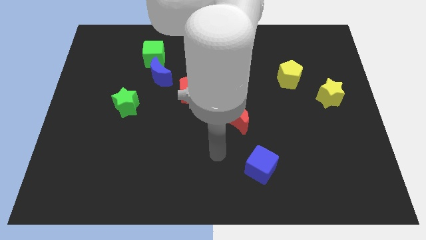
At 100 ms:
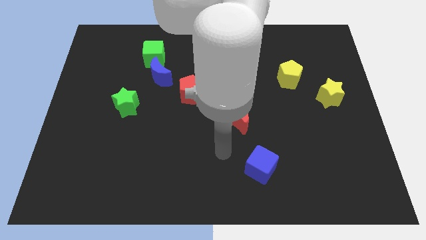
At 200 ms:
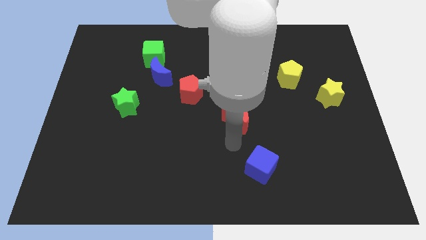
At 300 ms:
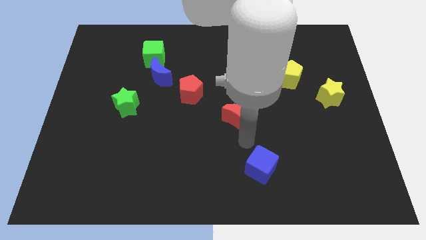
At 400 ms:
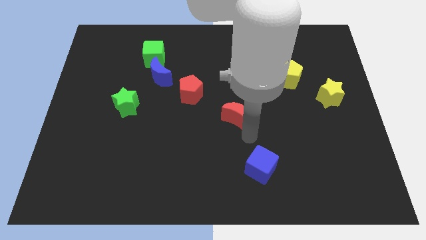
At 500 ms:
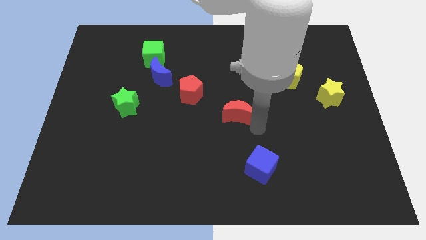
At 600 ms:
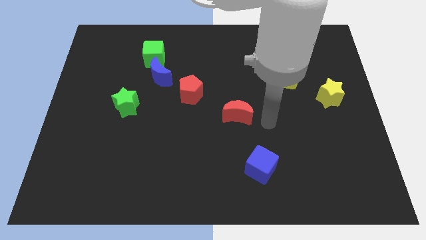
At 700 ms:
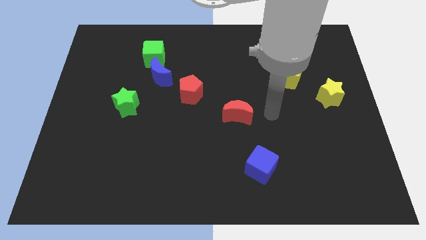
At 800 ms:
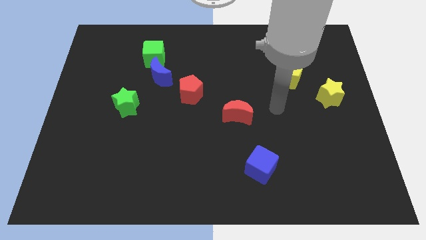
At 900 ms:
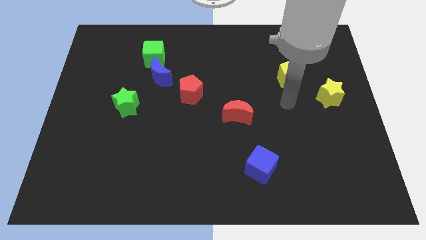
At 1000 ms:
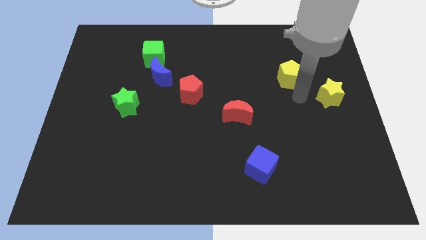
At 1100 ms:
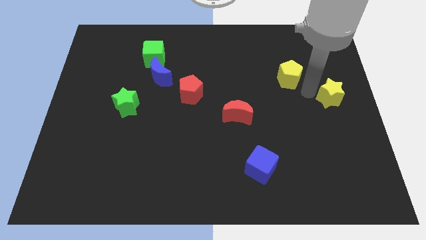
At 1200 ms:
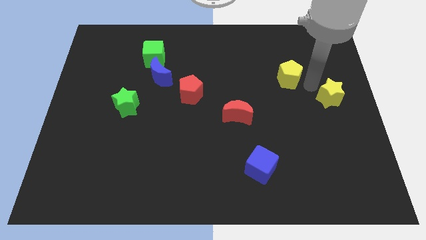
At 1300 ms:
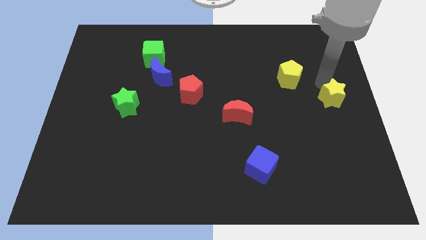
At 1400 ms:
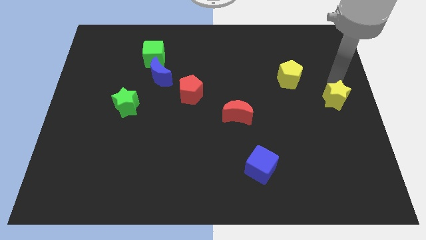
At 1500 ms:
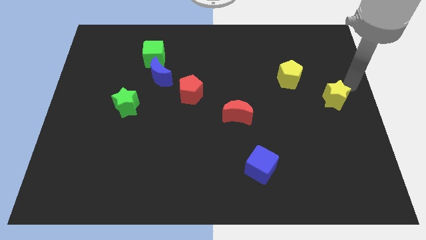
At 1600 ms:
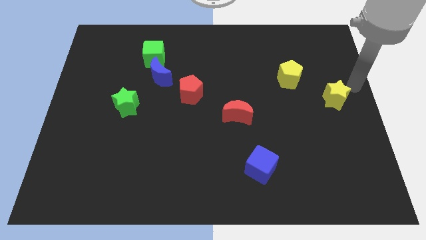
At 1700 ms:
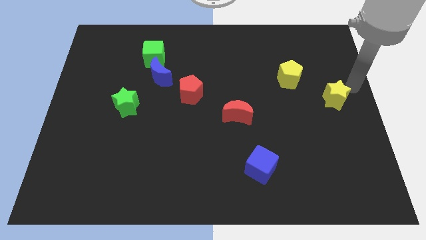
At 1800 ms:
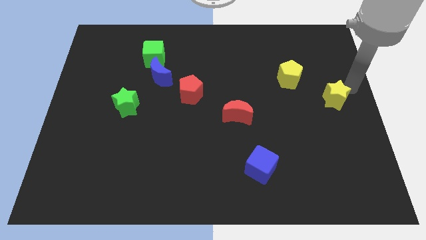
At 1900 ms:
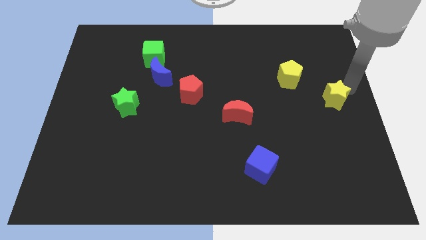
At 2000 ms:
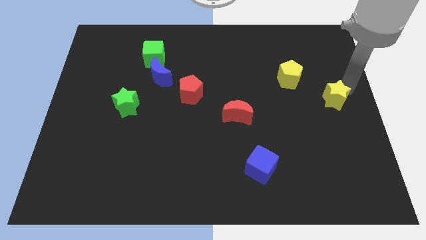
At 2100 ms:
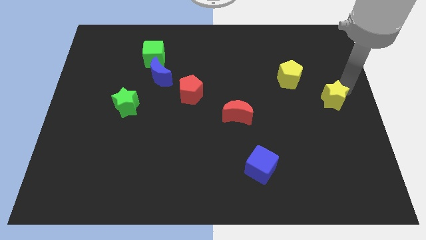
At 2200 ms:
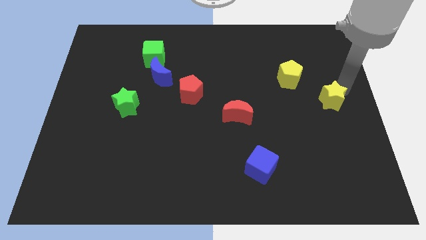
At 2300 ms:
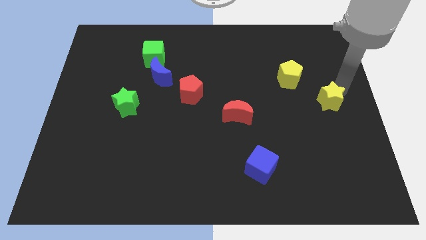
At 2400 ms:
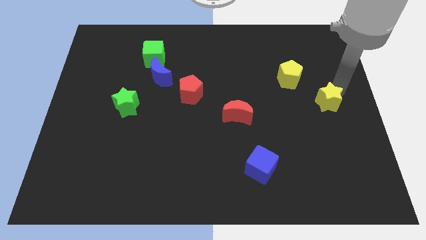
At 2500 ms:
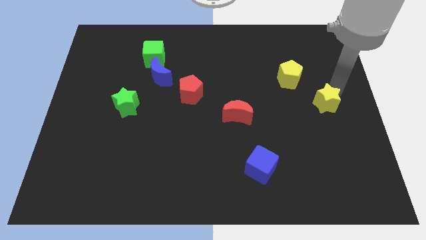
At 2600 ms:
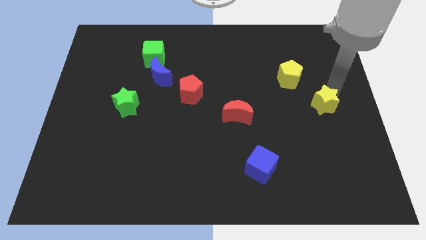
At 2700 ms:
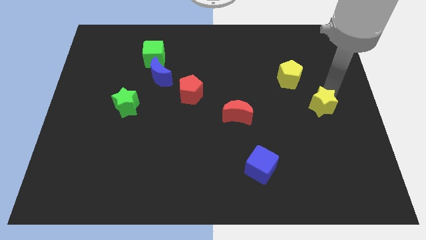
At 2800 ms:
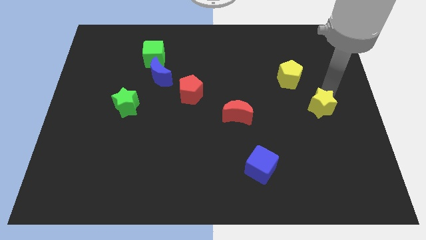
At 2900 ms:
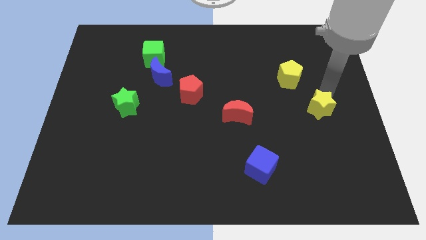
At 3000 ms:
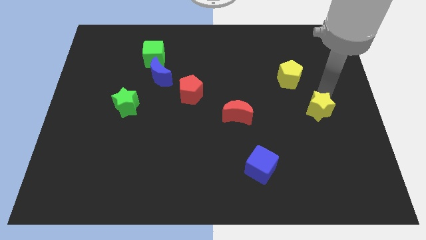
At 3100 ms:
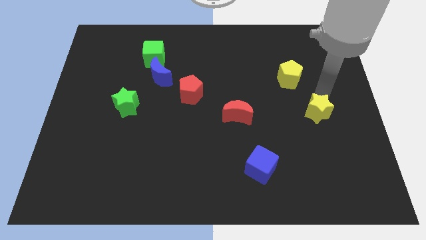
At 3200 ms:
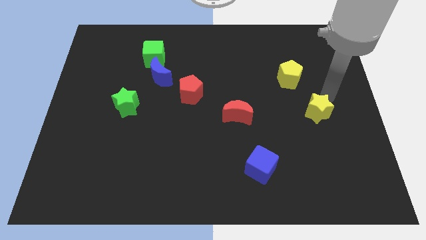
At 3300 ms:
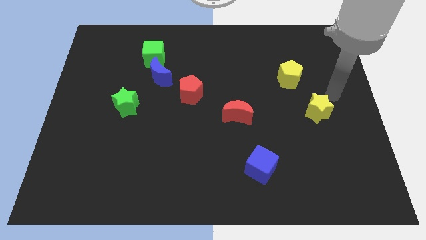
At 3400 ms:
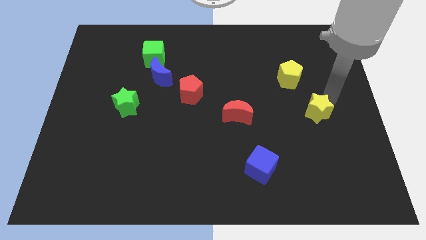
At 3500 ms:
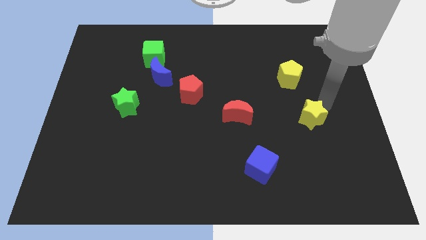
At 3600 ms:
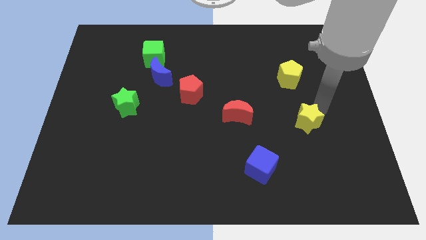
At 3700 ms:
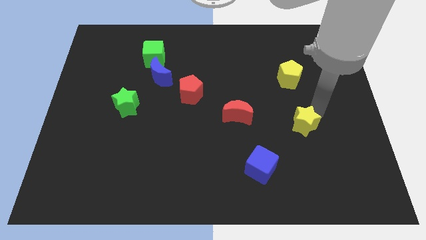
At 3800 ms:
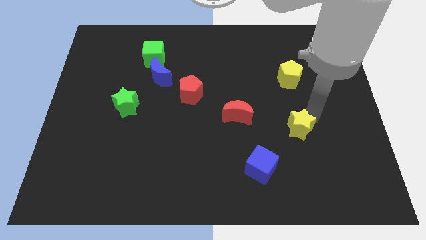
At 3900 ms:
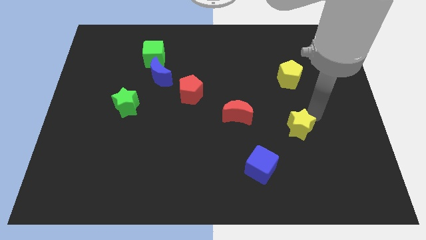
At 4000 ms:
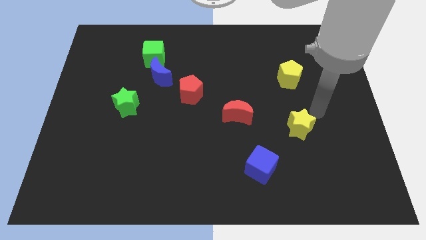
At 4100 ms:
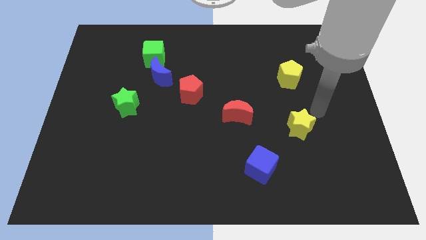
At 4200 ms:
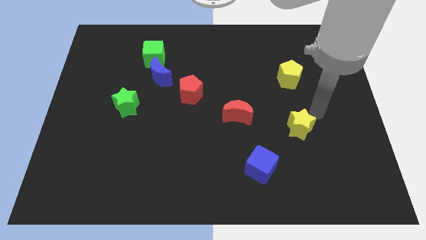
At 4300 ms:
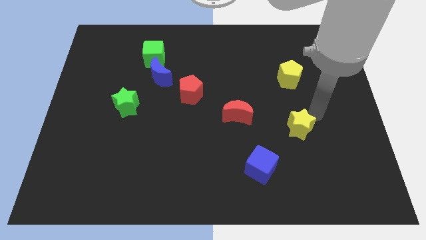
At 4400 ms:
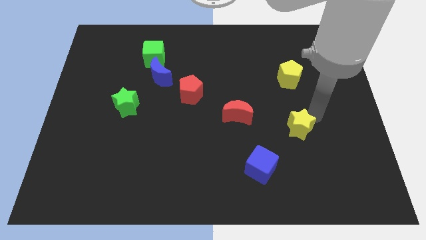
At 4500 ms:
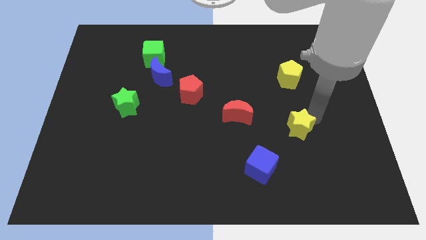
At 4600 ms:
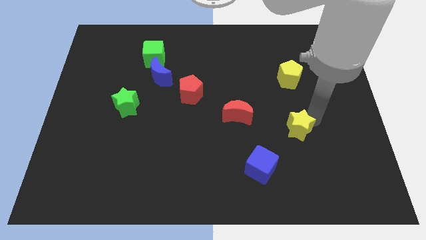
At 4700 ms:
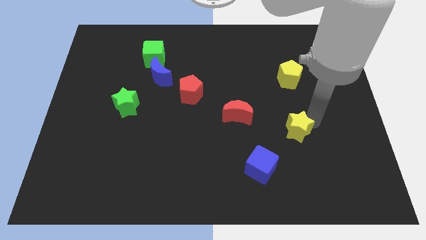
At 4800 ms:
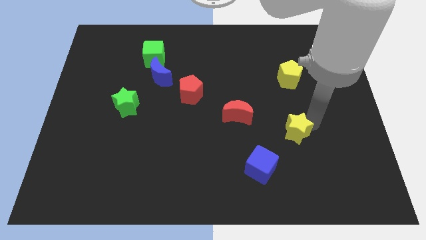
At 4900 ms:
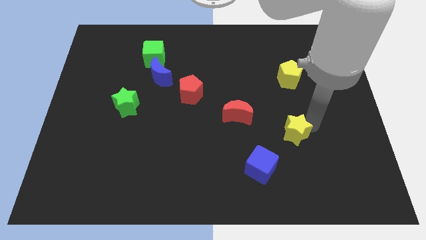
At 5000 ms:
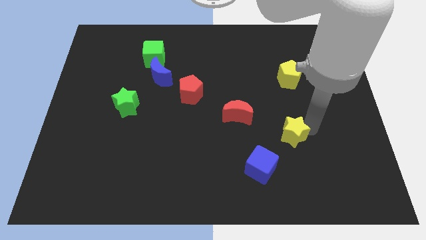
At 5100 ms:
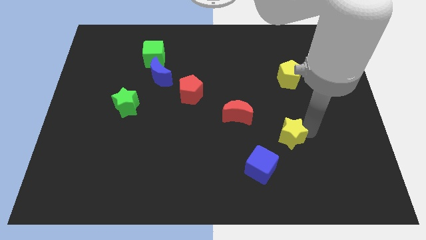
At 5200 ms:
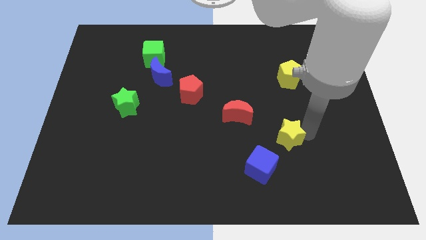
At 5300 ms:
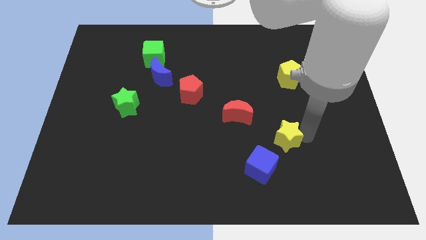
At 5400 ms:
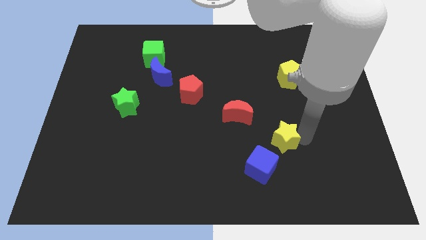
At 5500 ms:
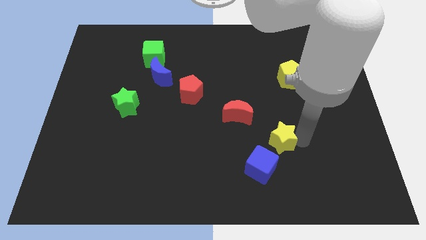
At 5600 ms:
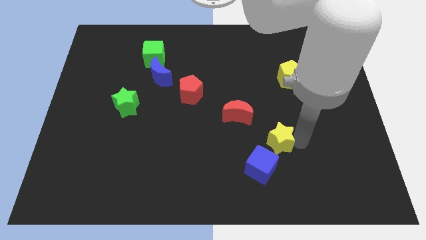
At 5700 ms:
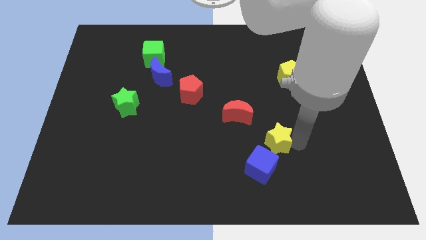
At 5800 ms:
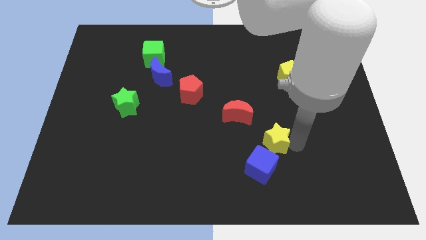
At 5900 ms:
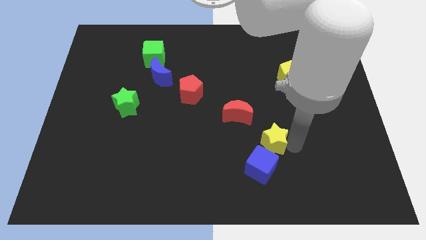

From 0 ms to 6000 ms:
push the yellow star downwards and left

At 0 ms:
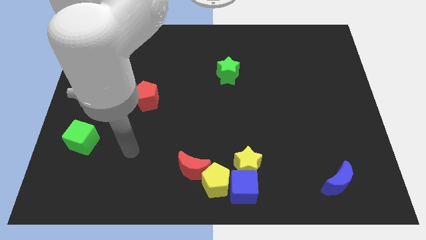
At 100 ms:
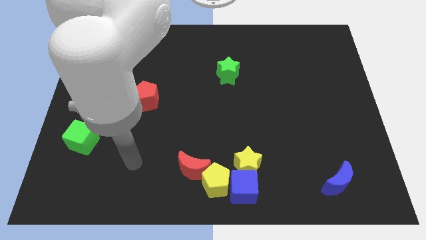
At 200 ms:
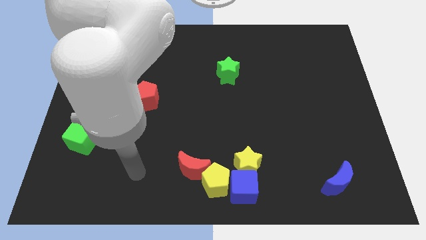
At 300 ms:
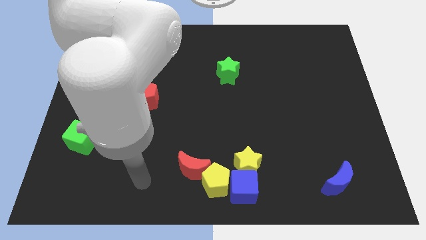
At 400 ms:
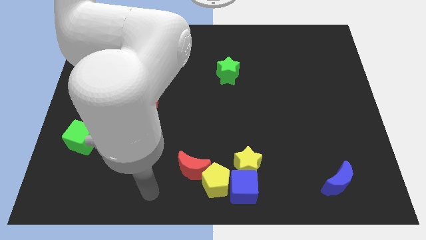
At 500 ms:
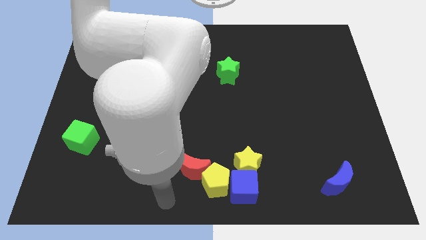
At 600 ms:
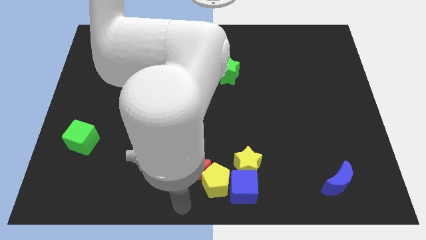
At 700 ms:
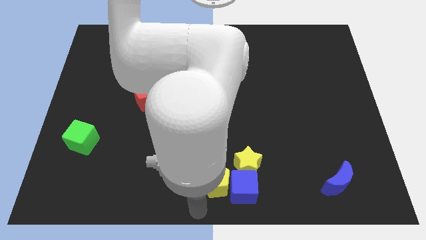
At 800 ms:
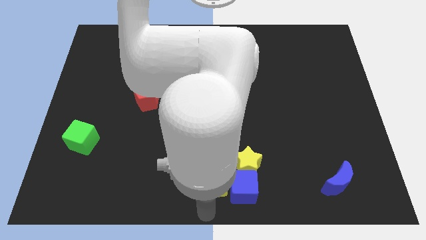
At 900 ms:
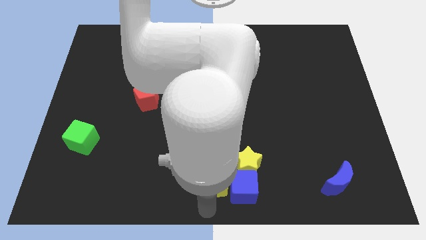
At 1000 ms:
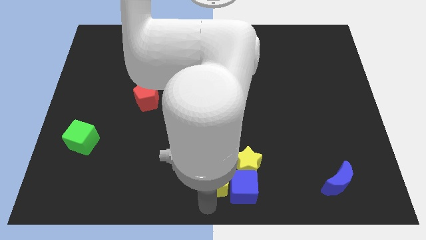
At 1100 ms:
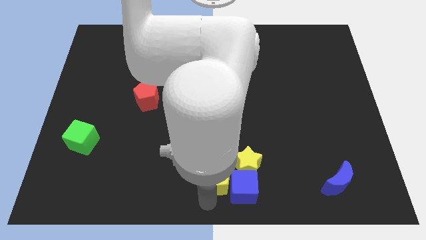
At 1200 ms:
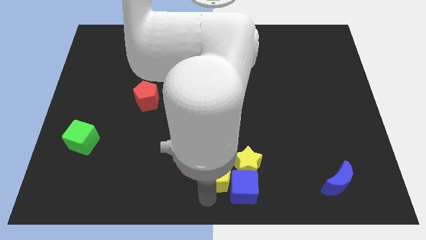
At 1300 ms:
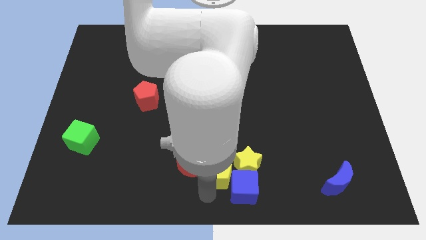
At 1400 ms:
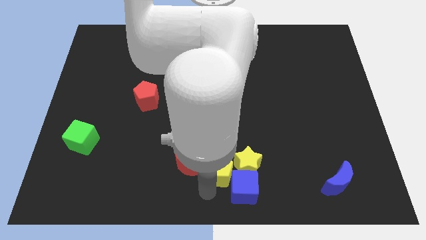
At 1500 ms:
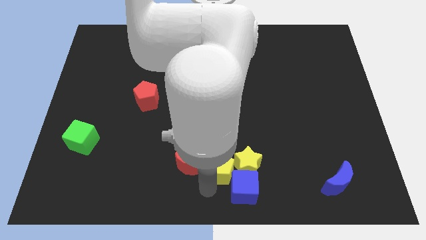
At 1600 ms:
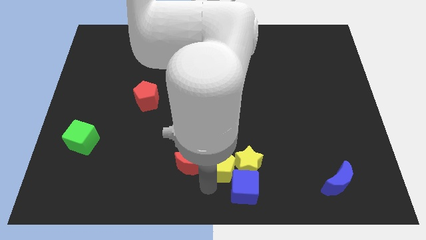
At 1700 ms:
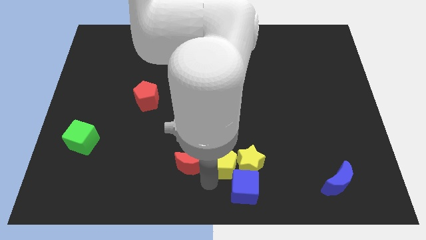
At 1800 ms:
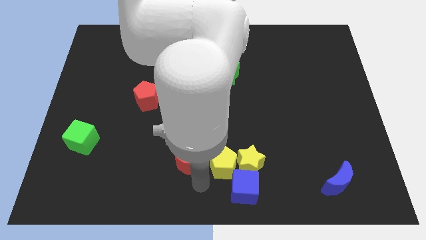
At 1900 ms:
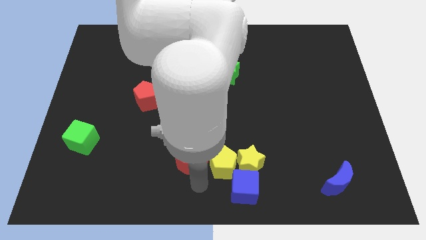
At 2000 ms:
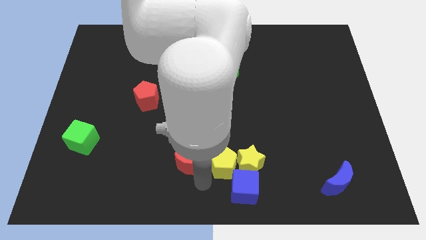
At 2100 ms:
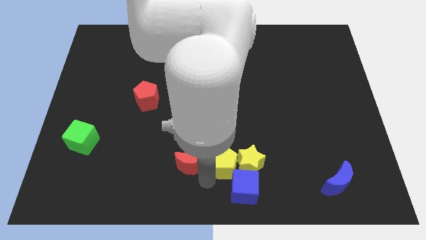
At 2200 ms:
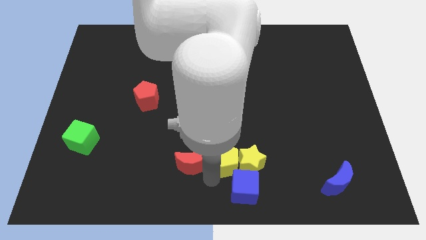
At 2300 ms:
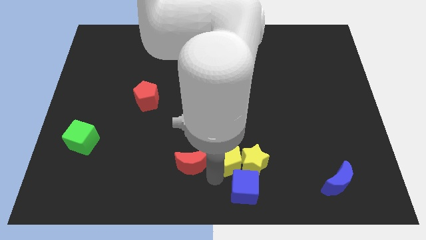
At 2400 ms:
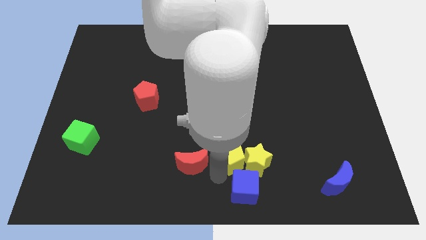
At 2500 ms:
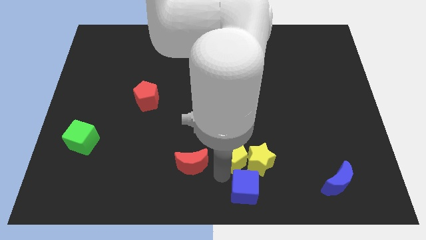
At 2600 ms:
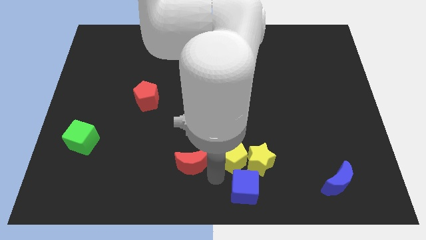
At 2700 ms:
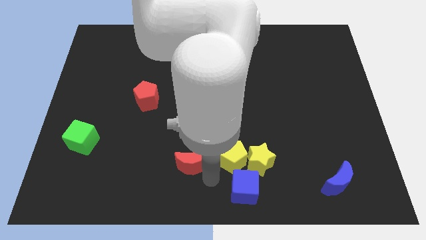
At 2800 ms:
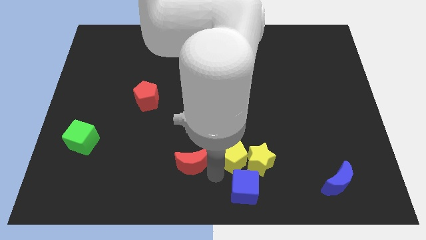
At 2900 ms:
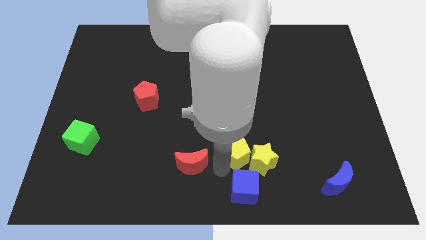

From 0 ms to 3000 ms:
slightly slide the yellow pentagon up and right
